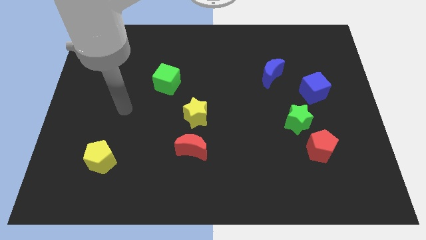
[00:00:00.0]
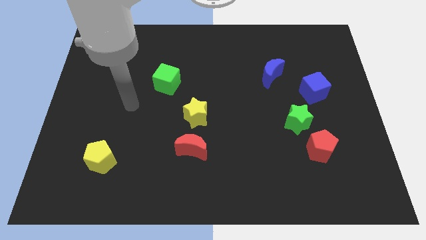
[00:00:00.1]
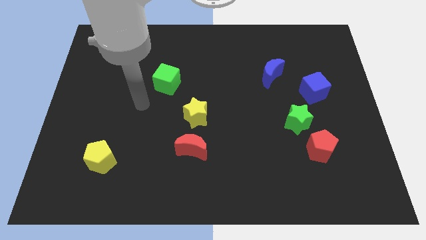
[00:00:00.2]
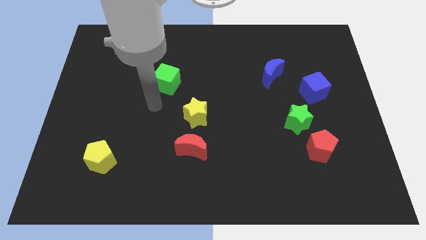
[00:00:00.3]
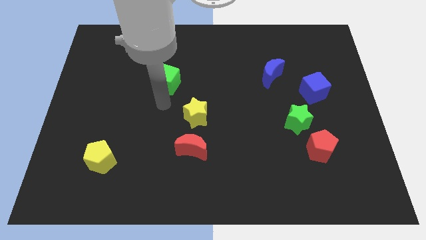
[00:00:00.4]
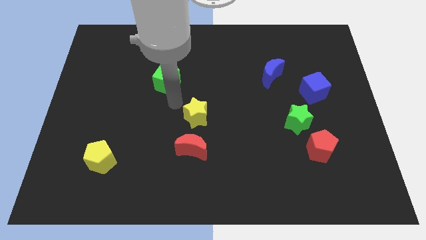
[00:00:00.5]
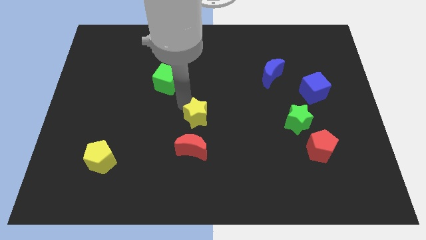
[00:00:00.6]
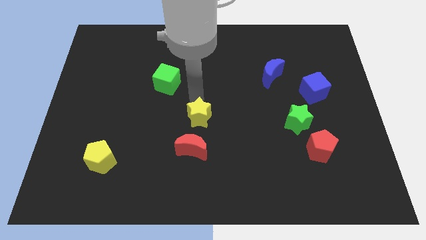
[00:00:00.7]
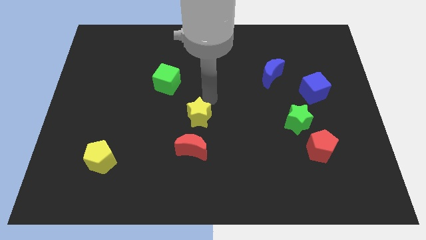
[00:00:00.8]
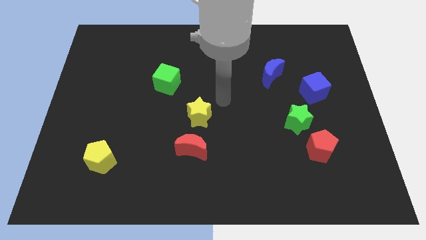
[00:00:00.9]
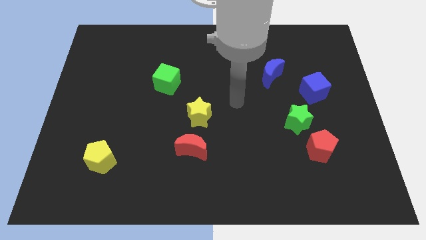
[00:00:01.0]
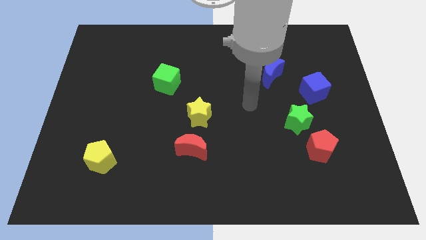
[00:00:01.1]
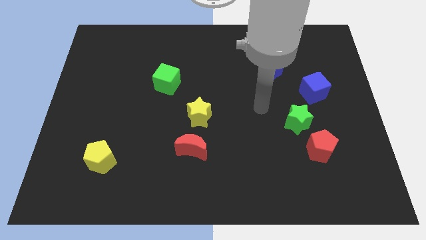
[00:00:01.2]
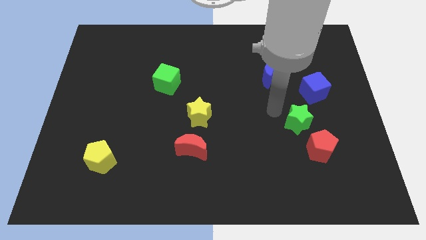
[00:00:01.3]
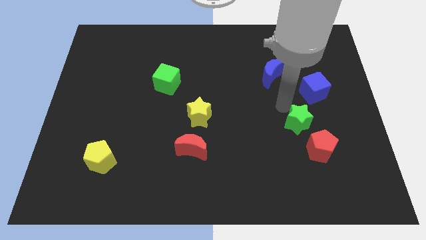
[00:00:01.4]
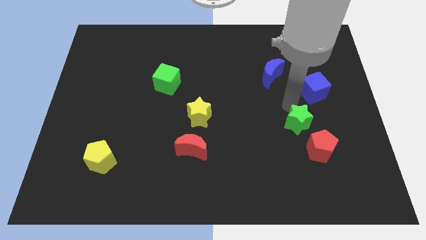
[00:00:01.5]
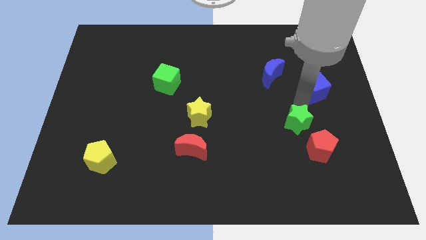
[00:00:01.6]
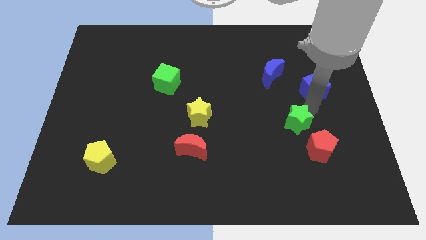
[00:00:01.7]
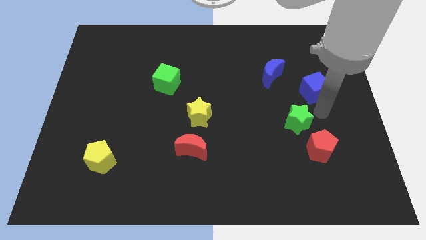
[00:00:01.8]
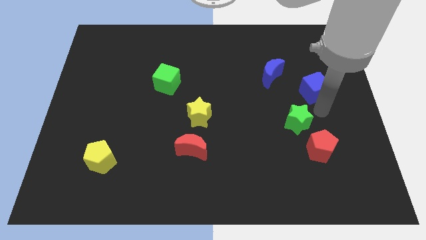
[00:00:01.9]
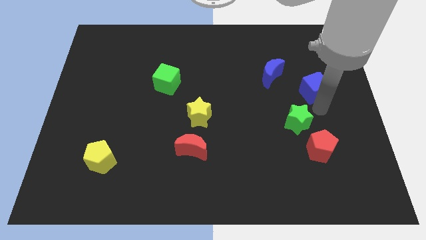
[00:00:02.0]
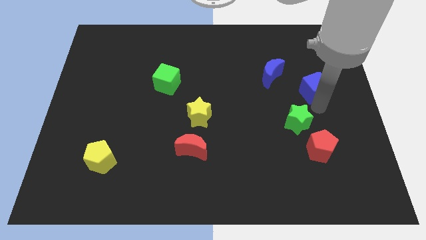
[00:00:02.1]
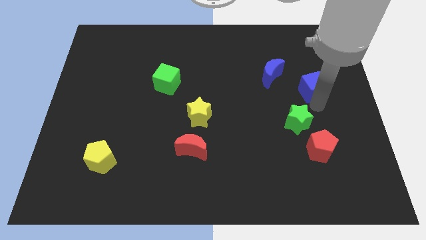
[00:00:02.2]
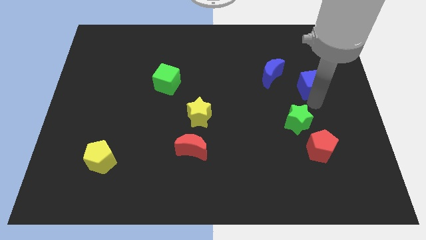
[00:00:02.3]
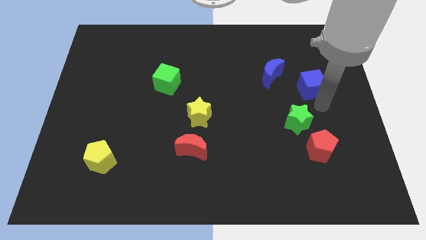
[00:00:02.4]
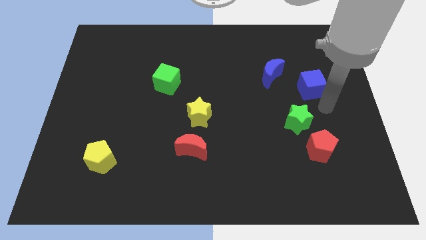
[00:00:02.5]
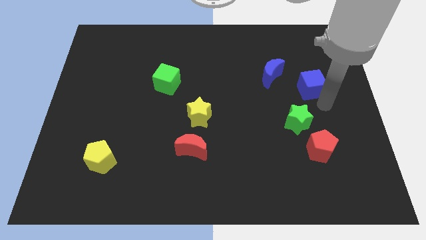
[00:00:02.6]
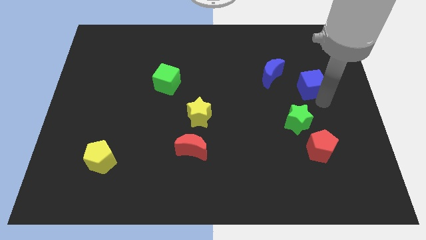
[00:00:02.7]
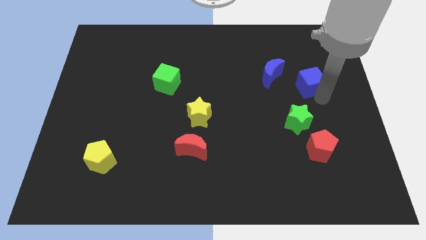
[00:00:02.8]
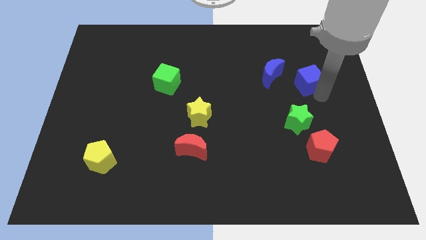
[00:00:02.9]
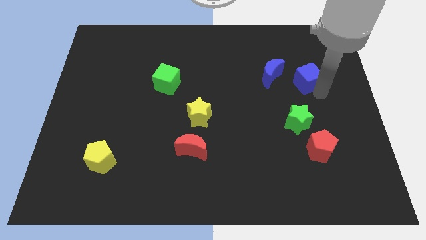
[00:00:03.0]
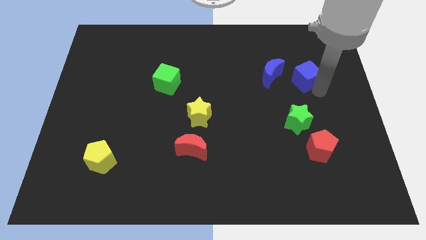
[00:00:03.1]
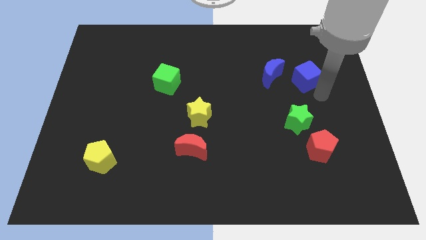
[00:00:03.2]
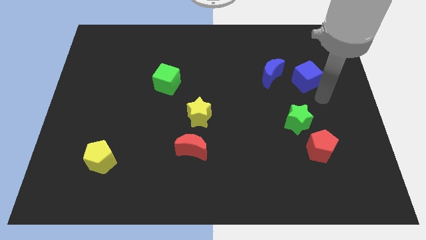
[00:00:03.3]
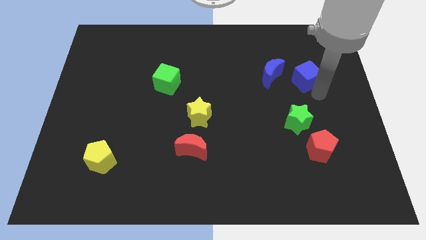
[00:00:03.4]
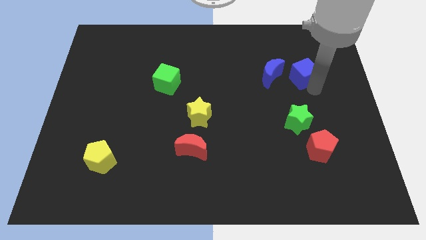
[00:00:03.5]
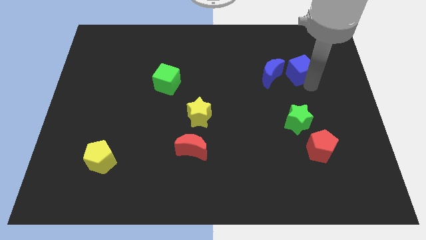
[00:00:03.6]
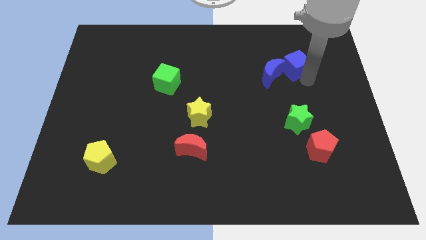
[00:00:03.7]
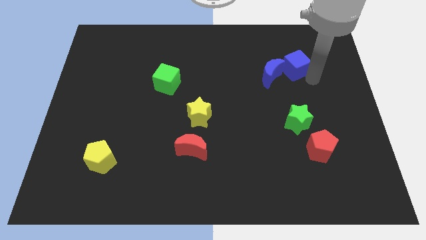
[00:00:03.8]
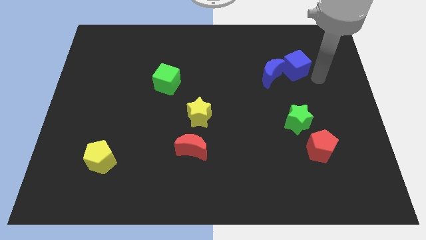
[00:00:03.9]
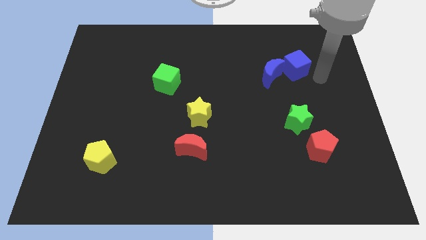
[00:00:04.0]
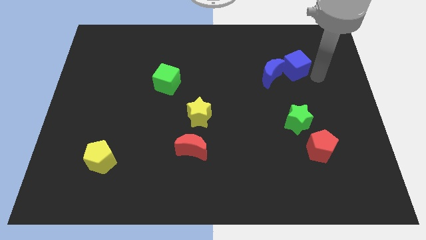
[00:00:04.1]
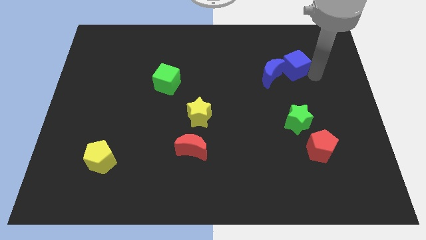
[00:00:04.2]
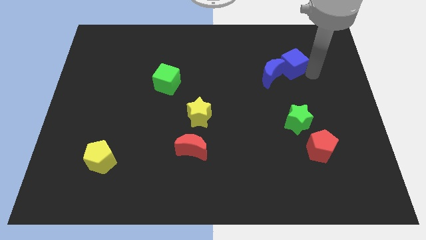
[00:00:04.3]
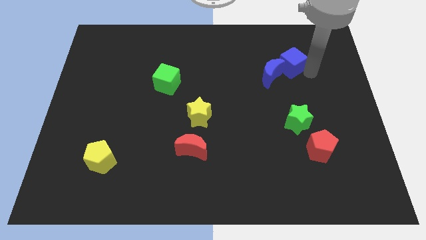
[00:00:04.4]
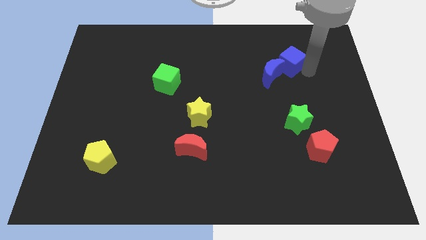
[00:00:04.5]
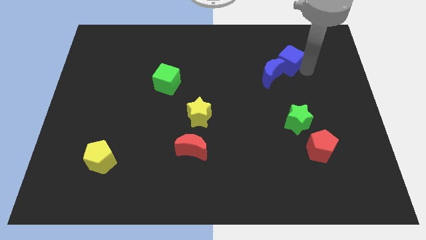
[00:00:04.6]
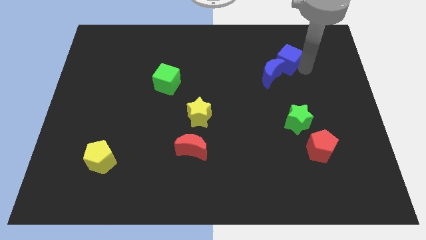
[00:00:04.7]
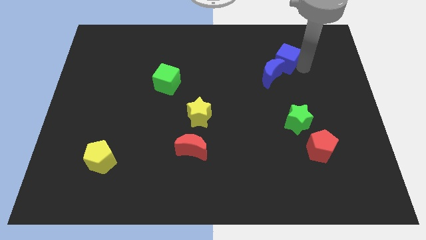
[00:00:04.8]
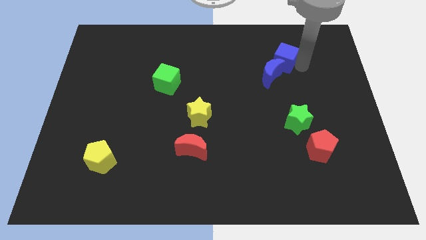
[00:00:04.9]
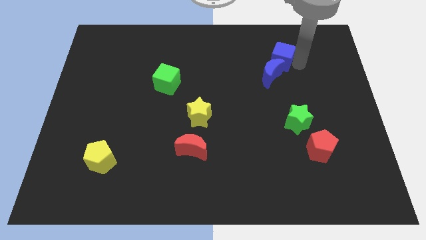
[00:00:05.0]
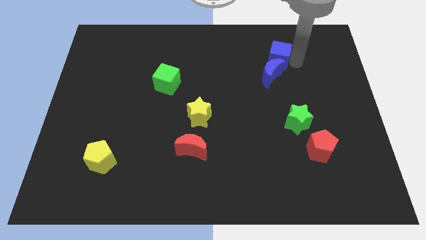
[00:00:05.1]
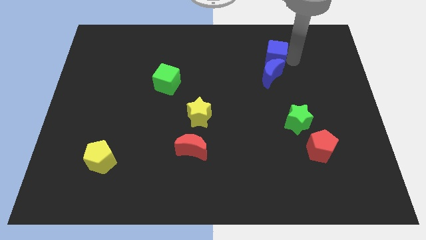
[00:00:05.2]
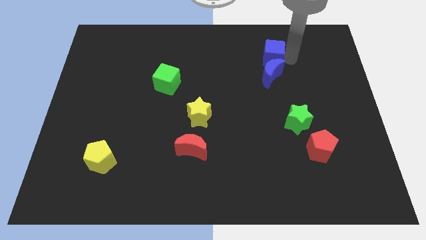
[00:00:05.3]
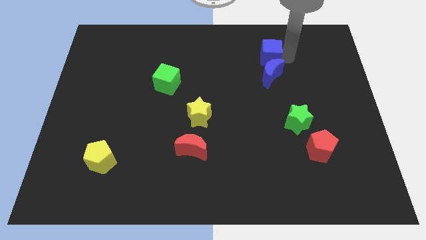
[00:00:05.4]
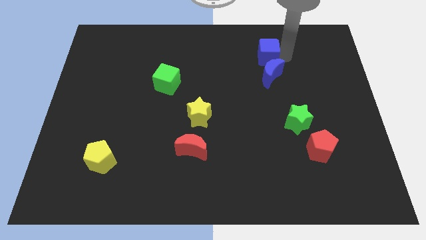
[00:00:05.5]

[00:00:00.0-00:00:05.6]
put the blue cube to the top left of the blue moon

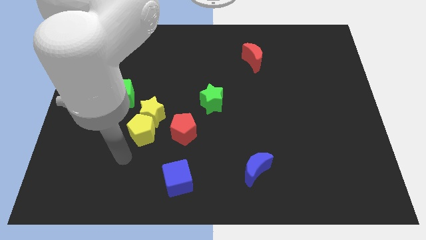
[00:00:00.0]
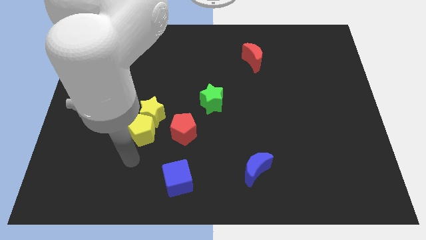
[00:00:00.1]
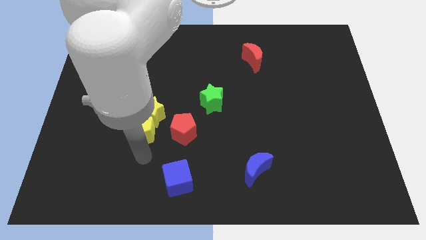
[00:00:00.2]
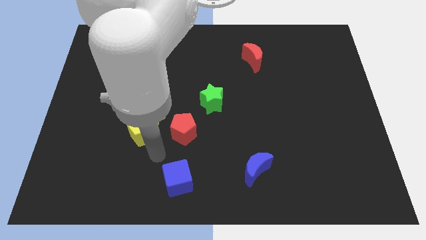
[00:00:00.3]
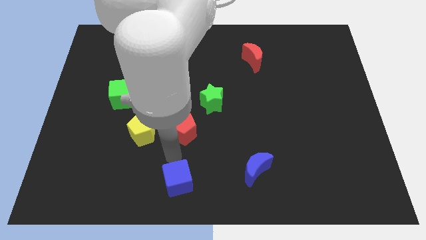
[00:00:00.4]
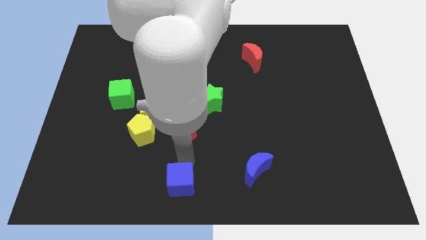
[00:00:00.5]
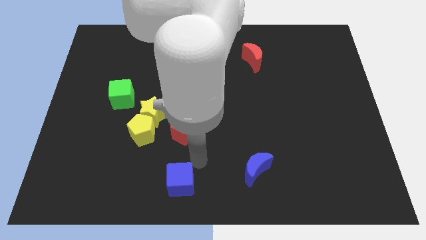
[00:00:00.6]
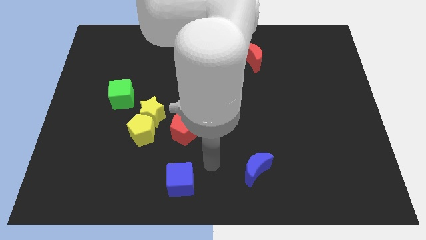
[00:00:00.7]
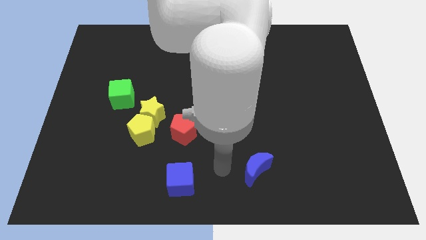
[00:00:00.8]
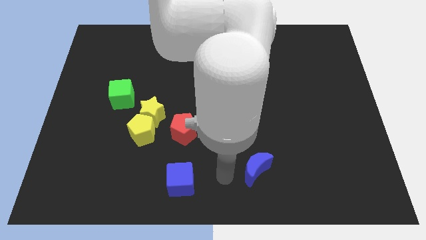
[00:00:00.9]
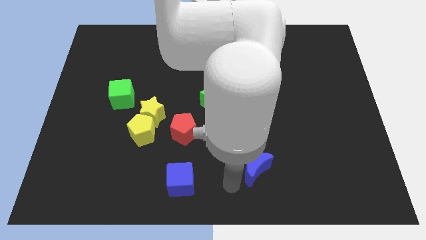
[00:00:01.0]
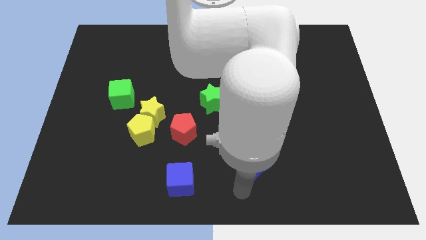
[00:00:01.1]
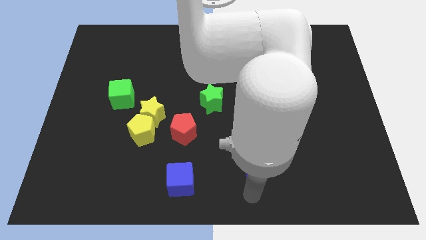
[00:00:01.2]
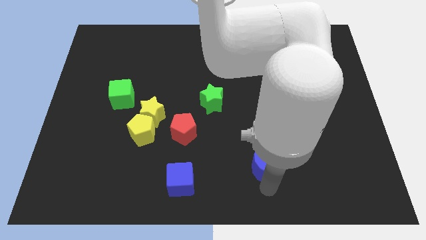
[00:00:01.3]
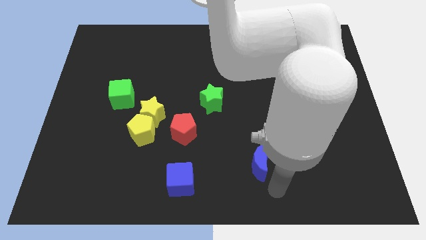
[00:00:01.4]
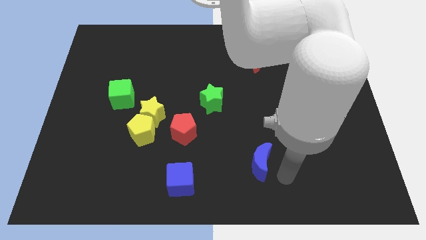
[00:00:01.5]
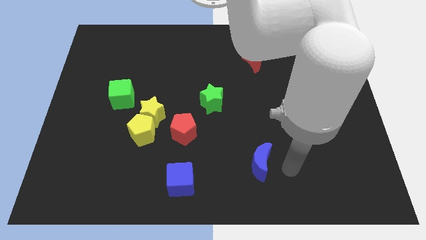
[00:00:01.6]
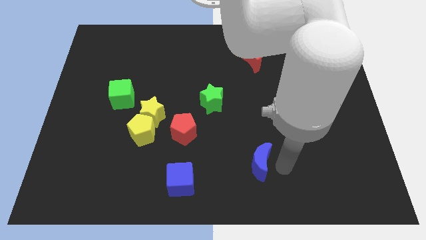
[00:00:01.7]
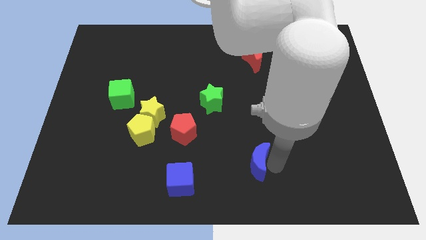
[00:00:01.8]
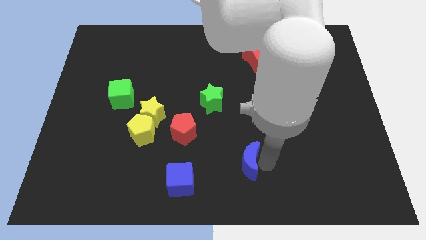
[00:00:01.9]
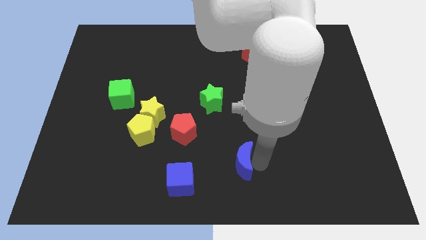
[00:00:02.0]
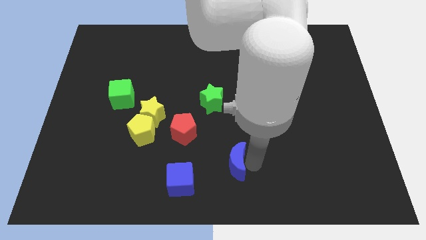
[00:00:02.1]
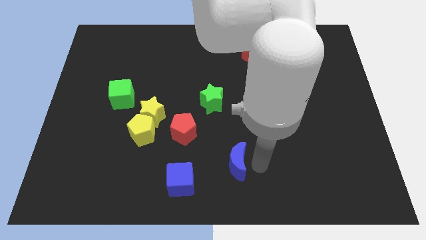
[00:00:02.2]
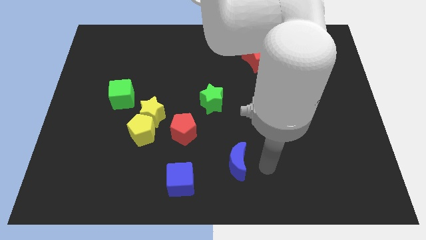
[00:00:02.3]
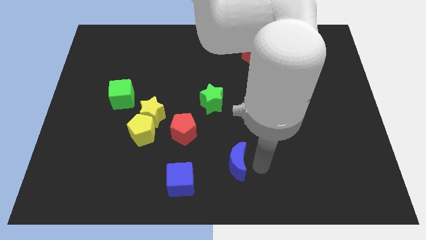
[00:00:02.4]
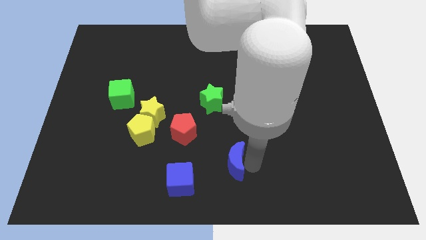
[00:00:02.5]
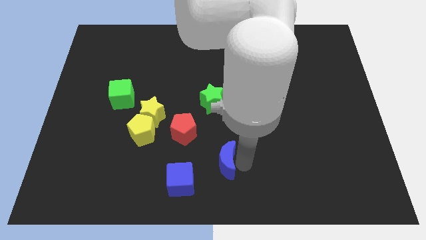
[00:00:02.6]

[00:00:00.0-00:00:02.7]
push the blue moon diagonally up and to the right of the blue cube
